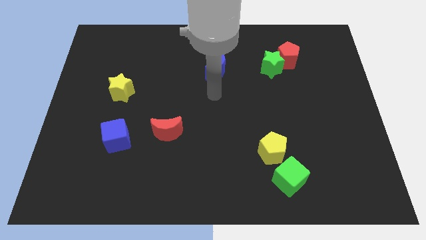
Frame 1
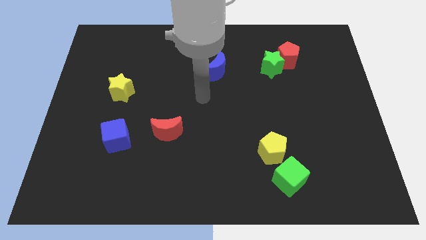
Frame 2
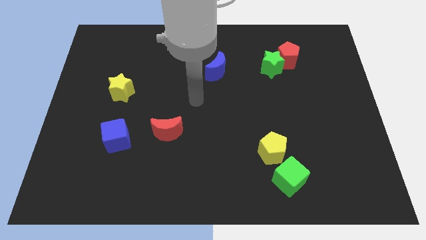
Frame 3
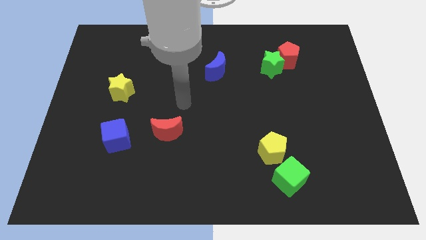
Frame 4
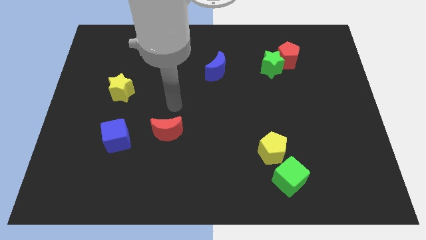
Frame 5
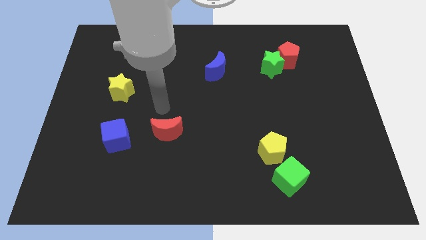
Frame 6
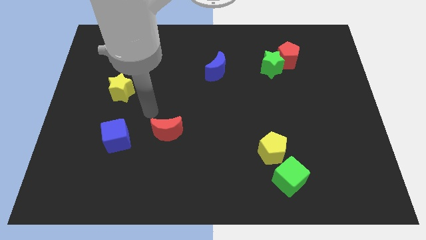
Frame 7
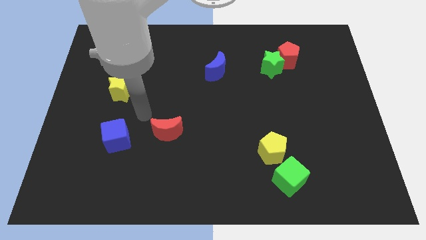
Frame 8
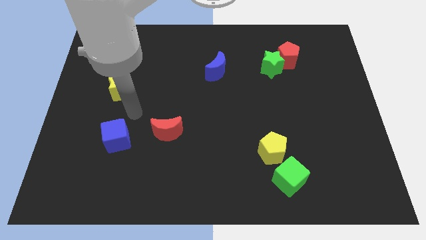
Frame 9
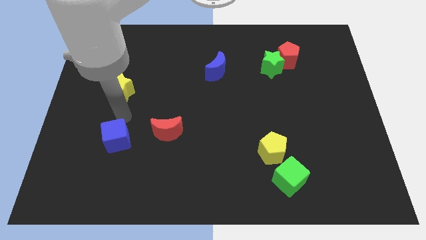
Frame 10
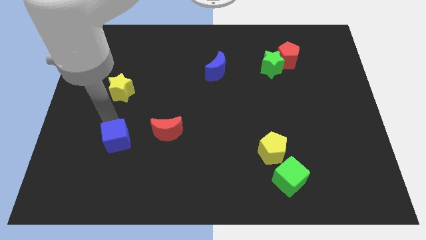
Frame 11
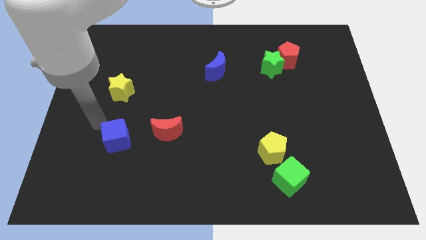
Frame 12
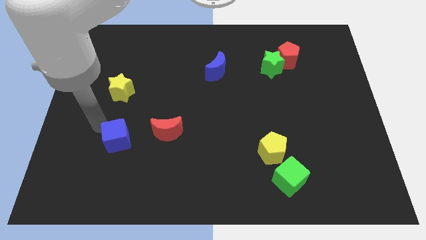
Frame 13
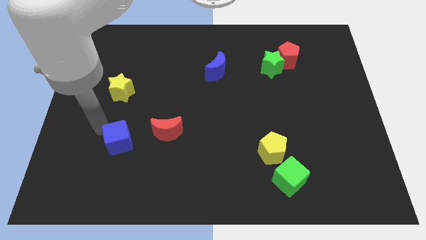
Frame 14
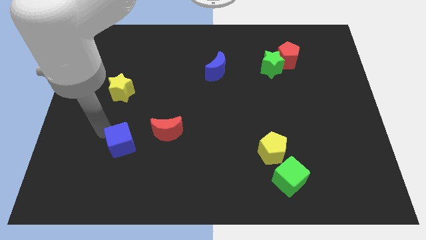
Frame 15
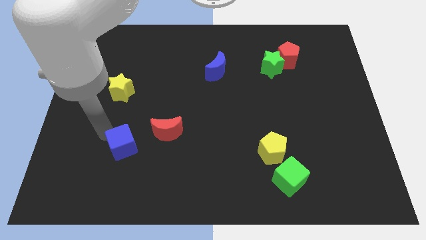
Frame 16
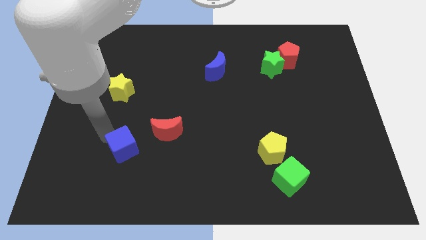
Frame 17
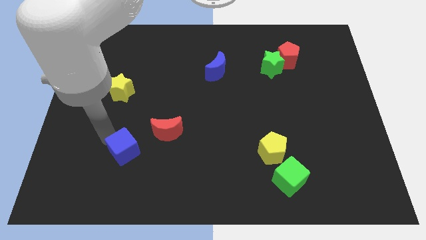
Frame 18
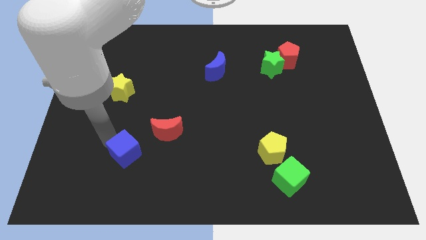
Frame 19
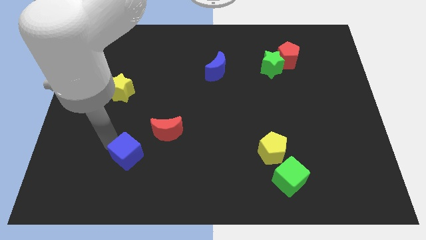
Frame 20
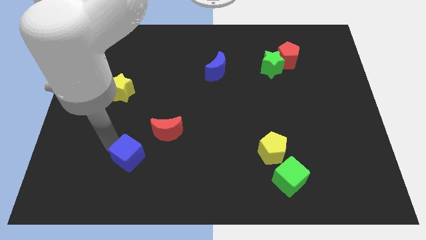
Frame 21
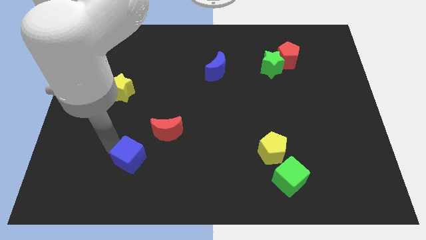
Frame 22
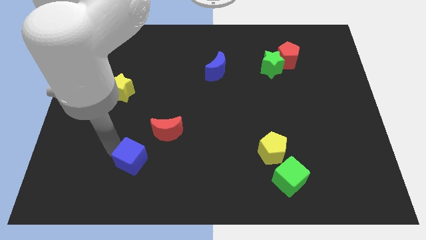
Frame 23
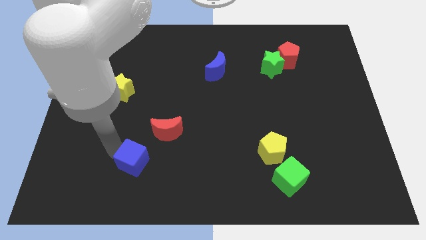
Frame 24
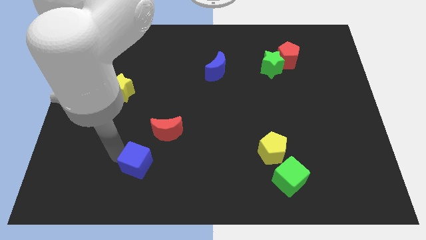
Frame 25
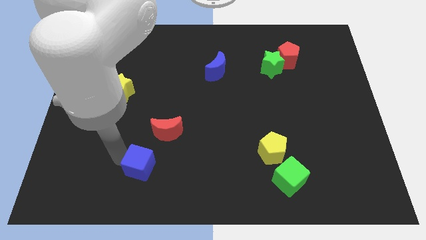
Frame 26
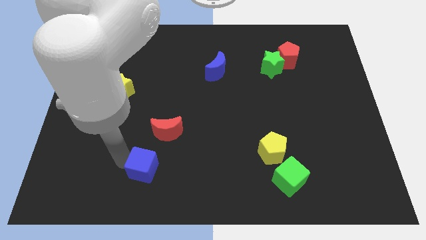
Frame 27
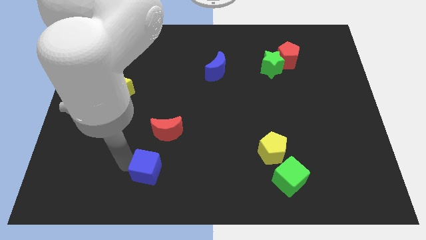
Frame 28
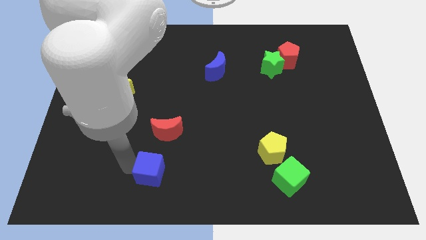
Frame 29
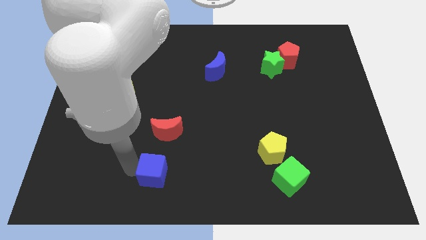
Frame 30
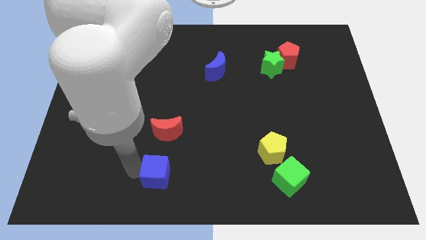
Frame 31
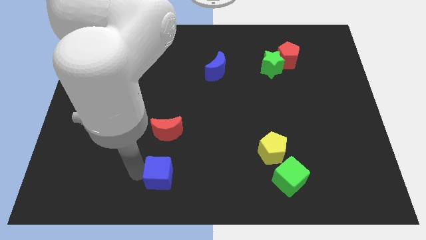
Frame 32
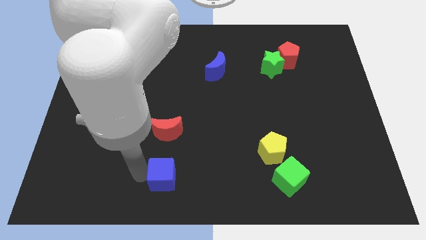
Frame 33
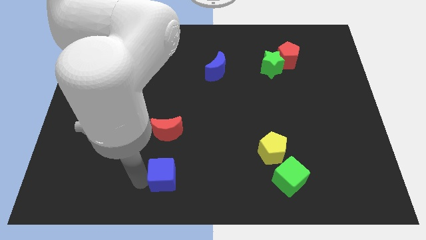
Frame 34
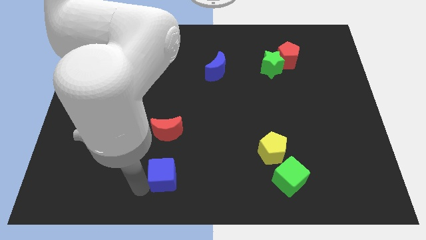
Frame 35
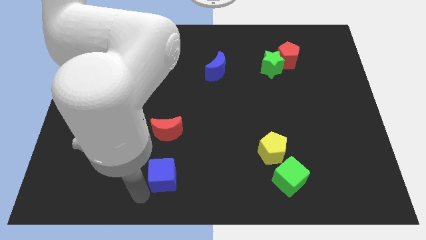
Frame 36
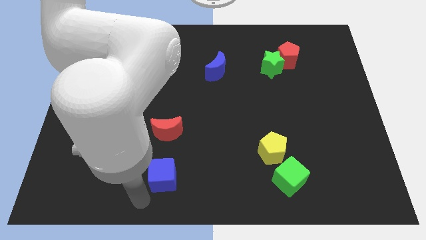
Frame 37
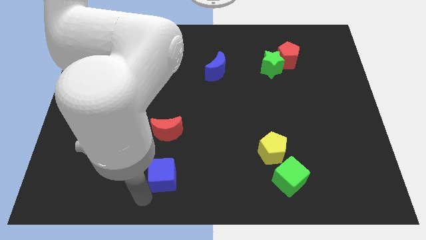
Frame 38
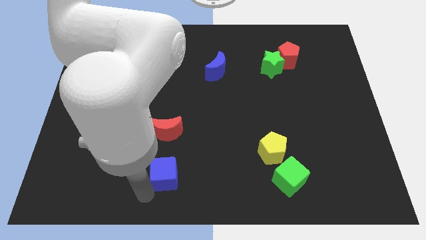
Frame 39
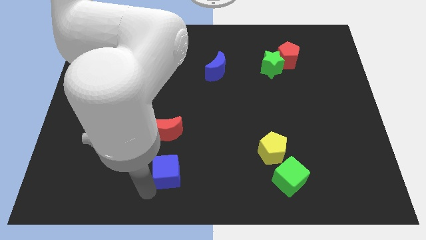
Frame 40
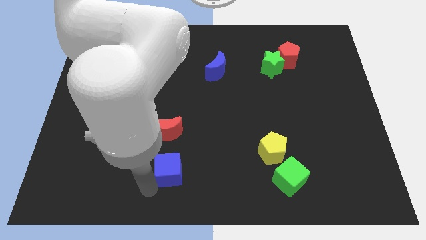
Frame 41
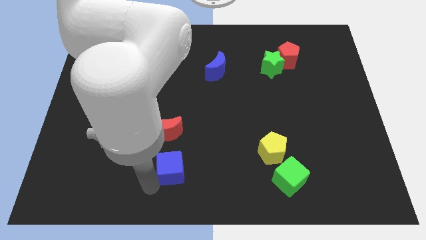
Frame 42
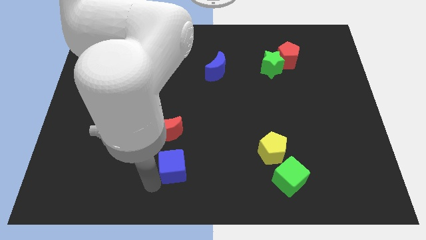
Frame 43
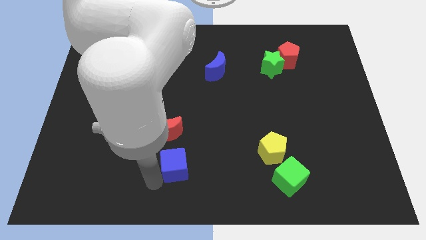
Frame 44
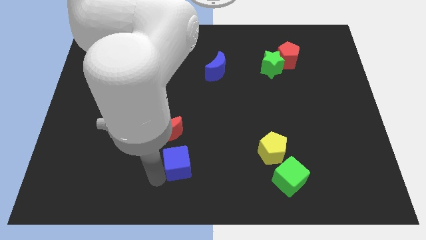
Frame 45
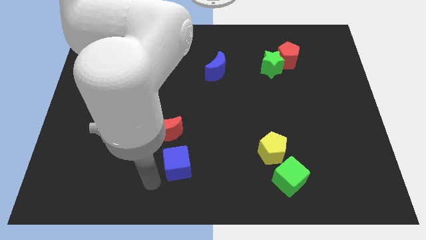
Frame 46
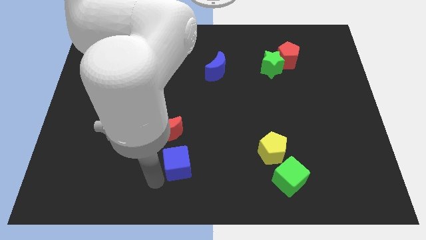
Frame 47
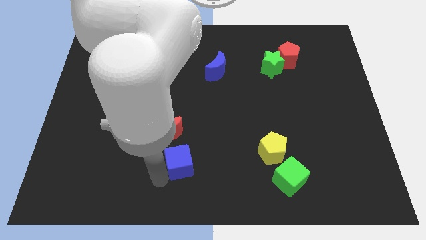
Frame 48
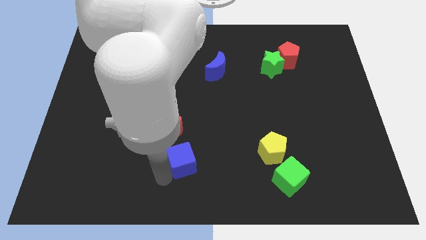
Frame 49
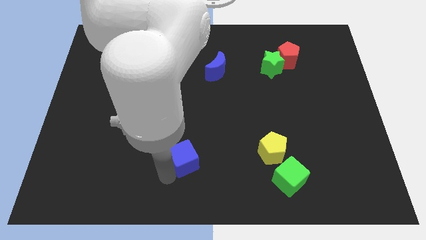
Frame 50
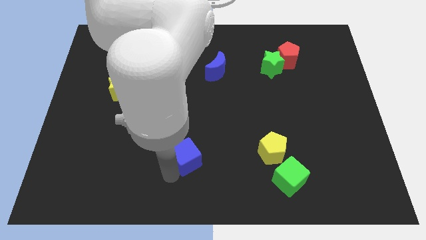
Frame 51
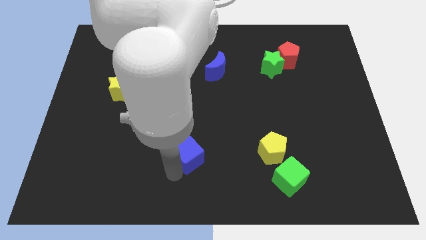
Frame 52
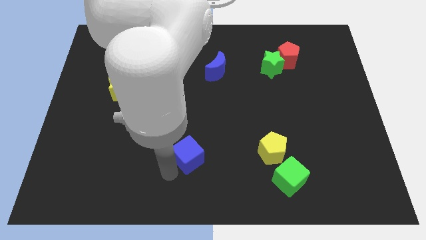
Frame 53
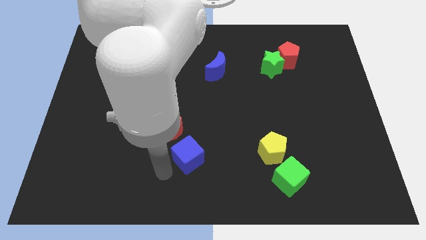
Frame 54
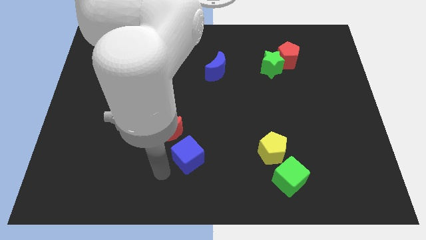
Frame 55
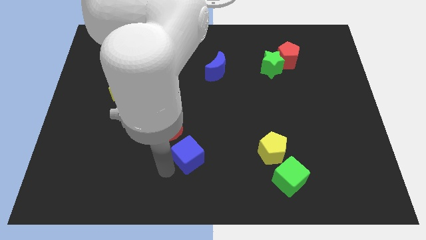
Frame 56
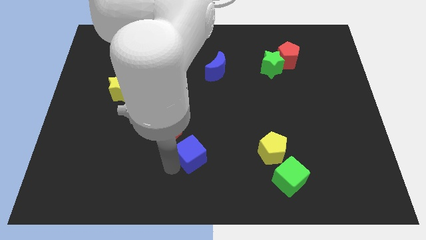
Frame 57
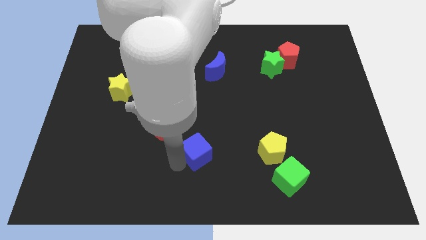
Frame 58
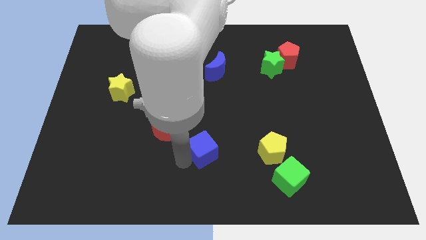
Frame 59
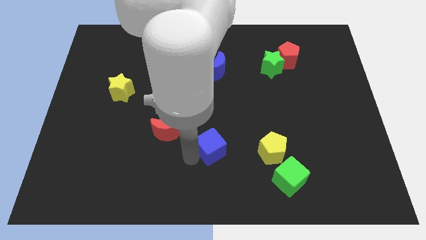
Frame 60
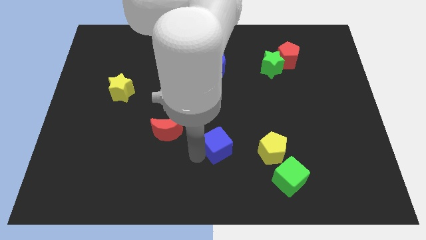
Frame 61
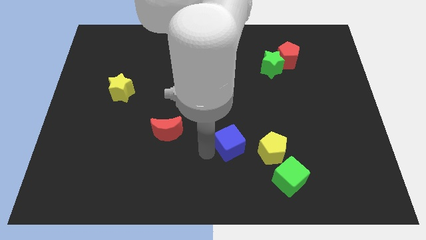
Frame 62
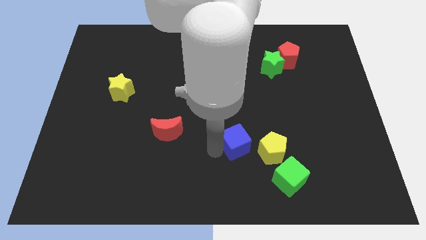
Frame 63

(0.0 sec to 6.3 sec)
slide the blue cube to the top left side of the yellow pentagon

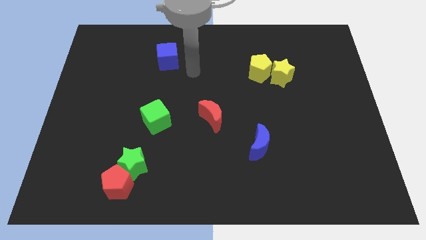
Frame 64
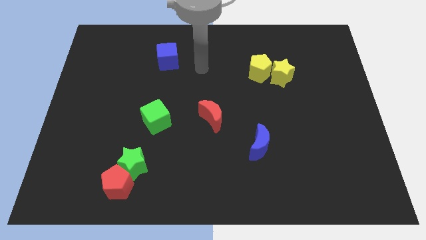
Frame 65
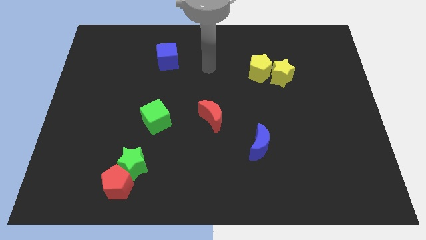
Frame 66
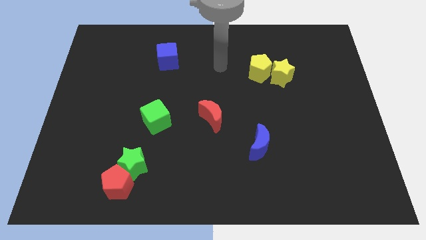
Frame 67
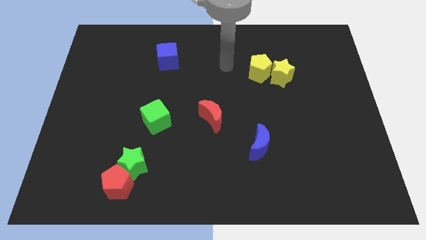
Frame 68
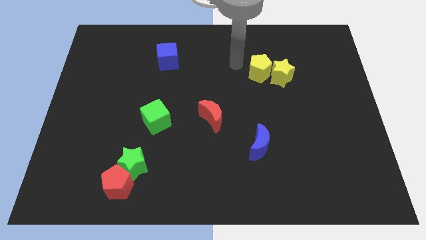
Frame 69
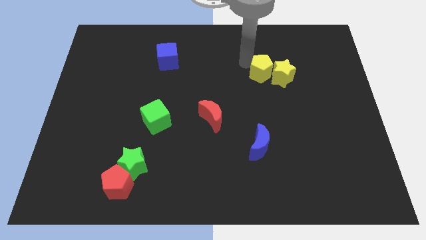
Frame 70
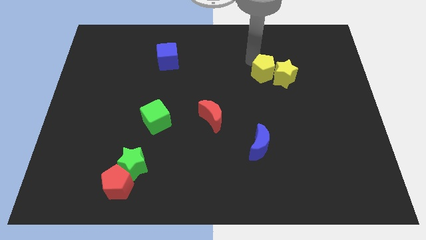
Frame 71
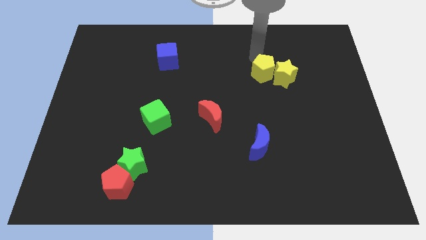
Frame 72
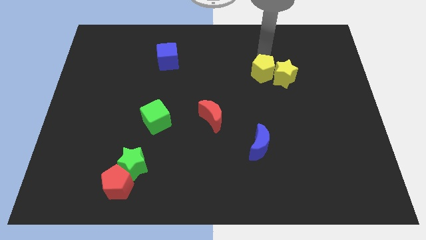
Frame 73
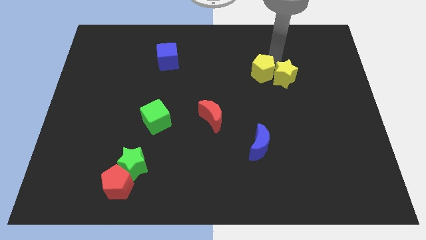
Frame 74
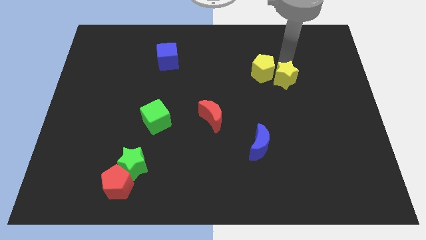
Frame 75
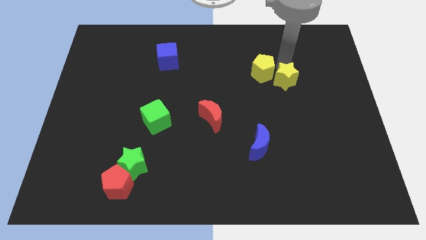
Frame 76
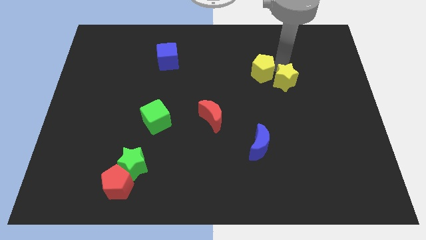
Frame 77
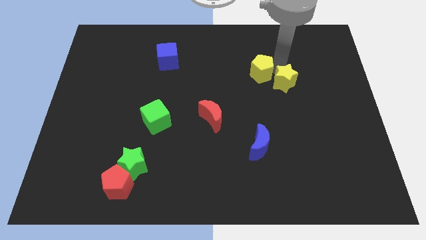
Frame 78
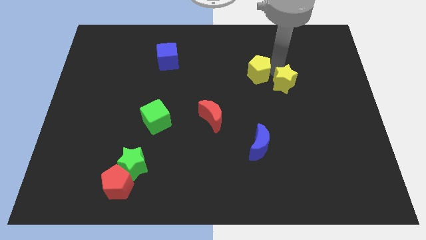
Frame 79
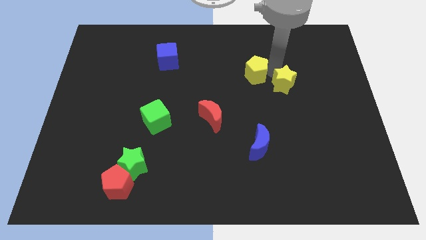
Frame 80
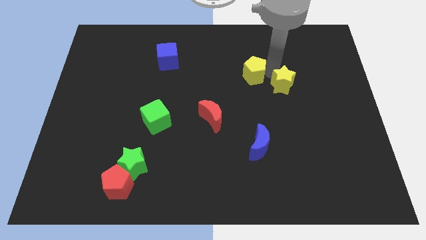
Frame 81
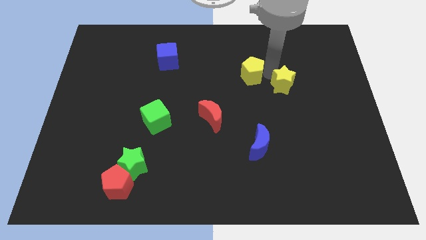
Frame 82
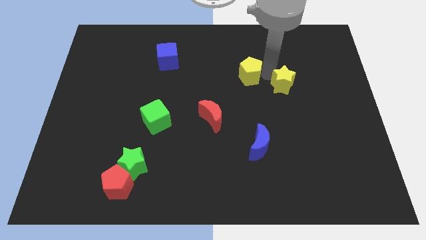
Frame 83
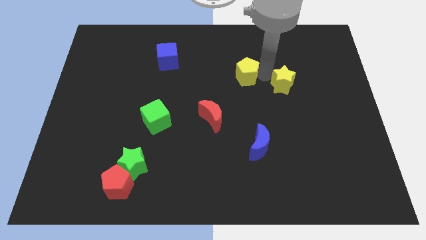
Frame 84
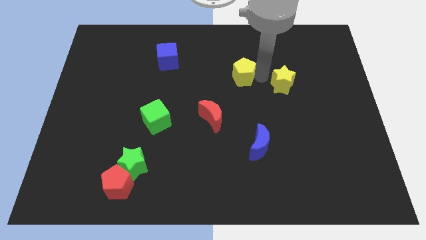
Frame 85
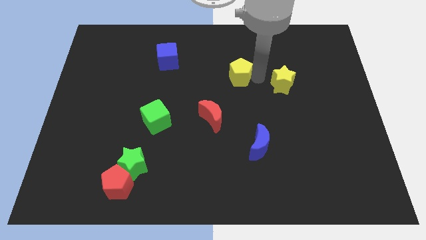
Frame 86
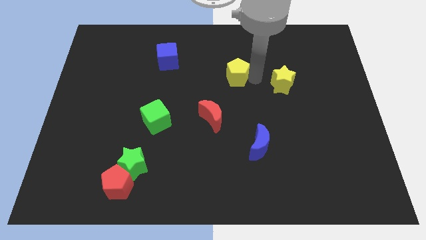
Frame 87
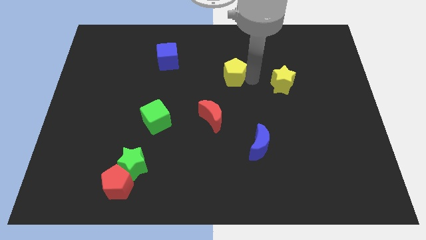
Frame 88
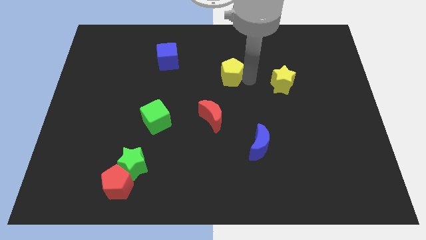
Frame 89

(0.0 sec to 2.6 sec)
push the yellow pentagon to the top side of the red moon
